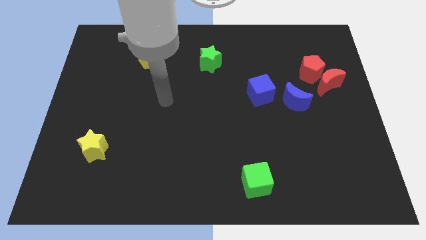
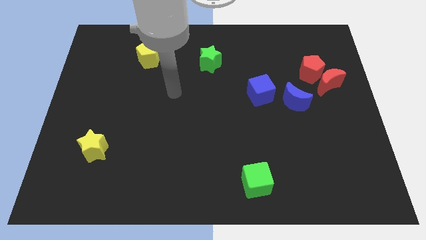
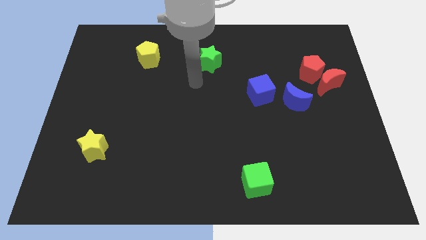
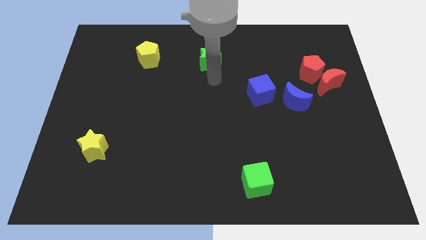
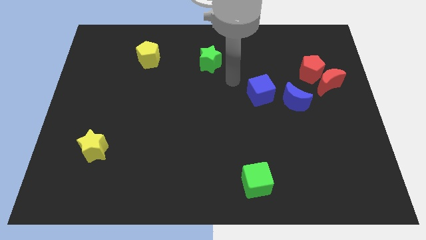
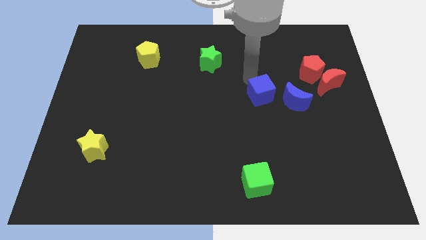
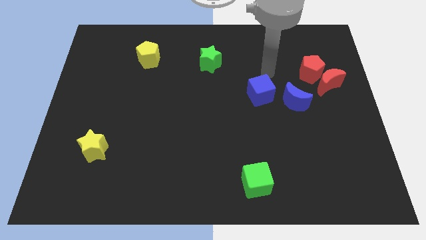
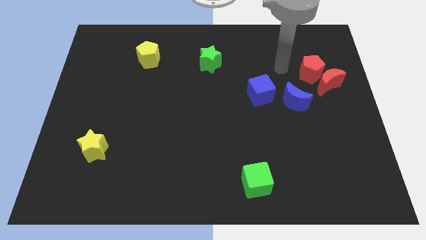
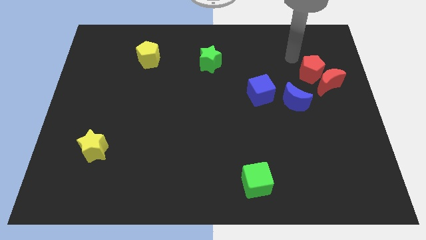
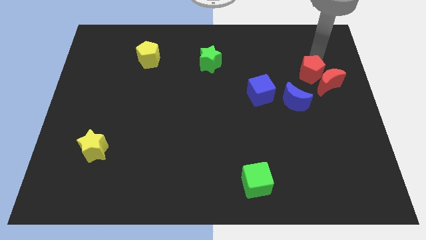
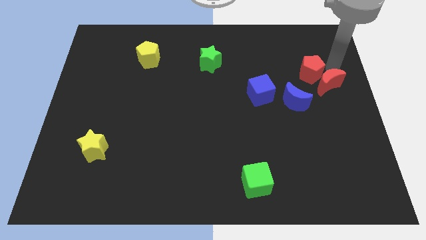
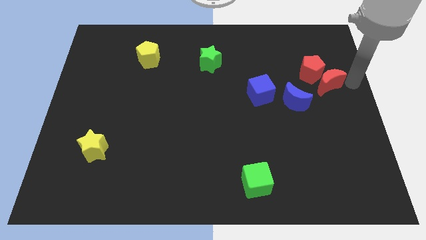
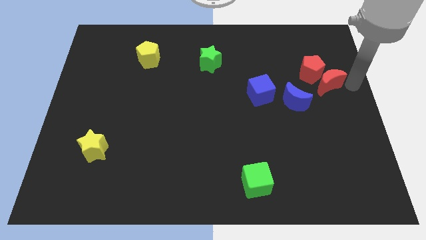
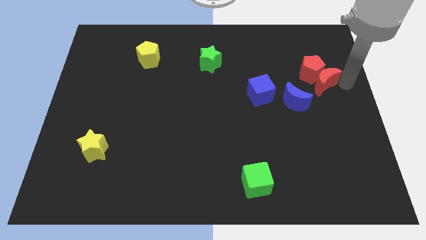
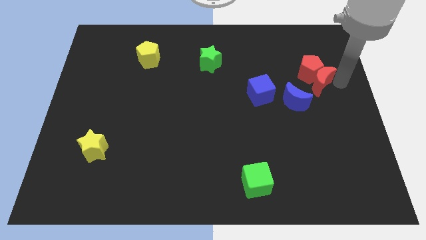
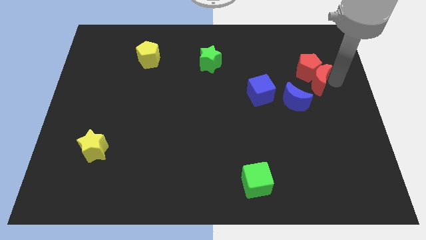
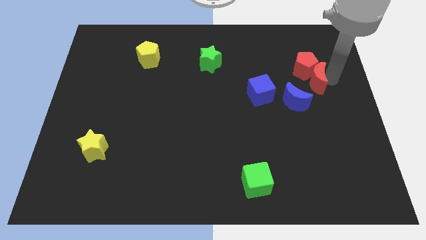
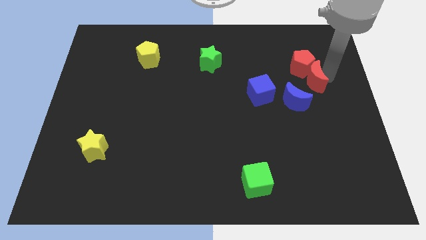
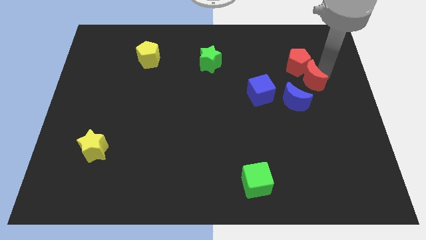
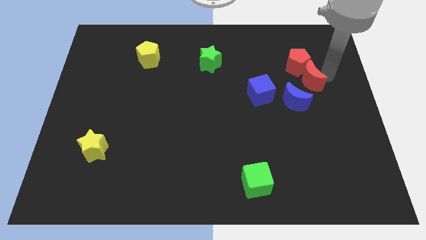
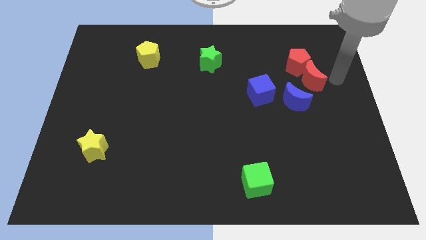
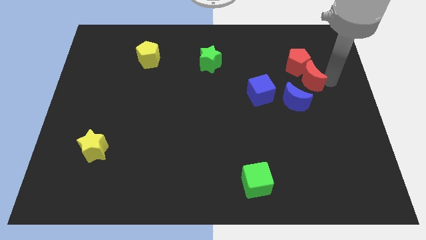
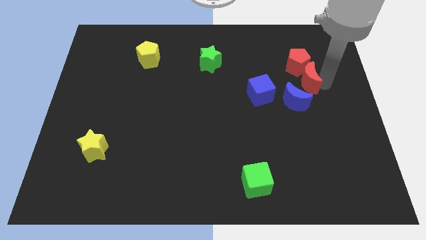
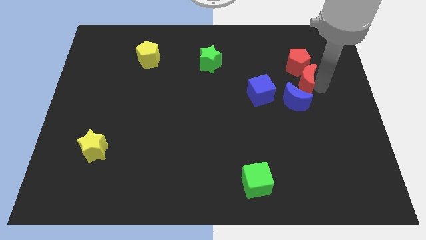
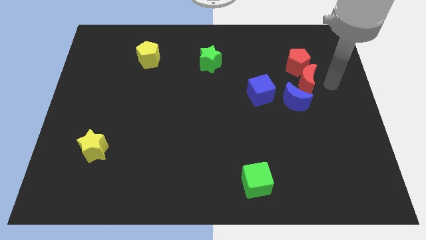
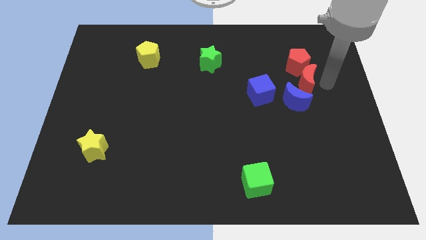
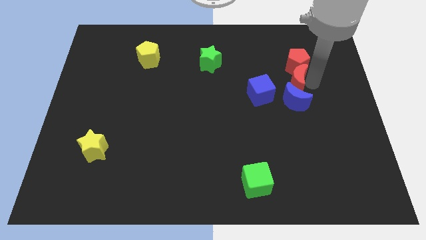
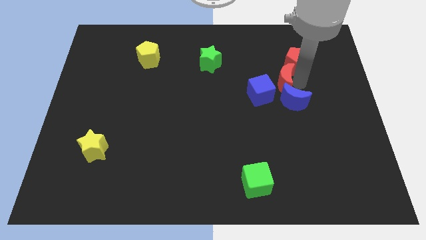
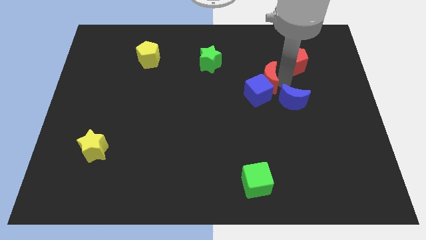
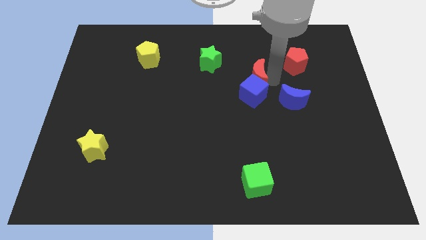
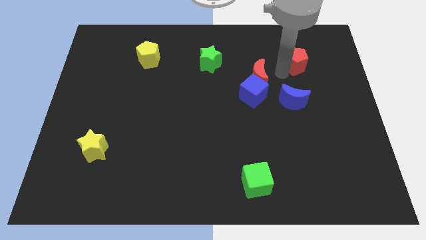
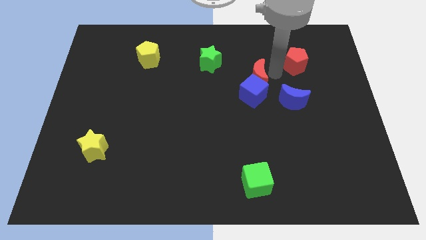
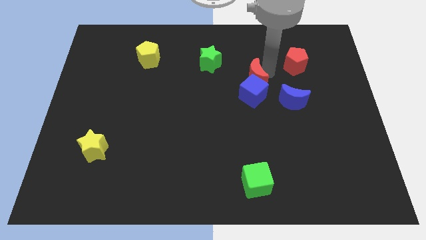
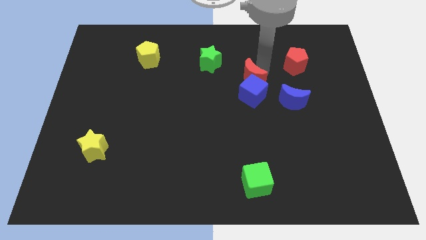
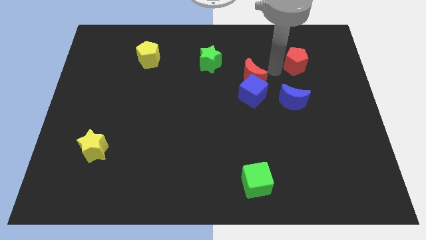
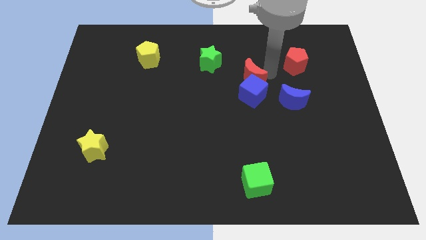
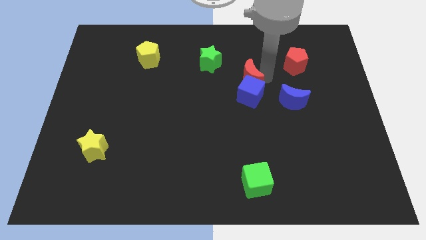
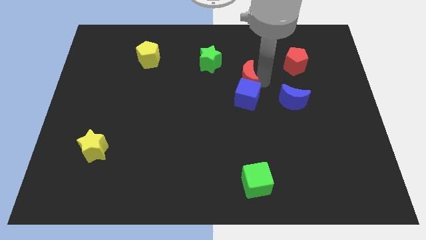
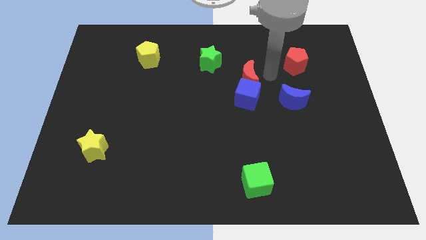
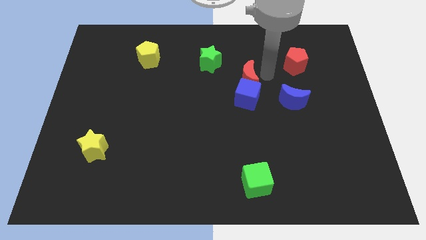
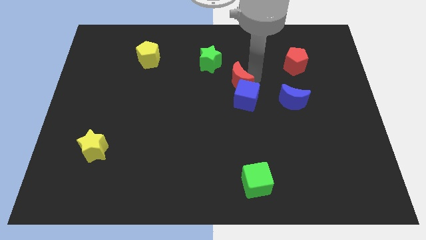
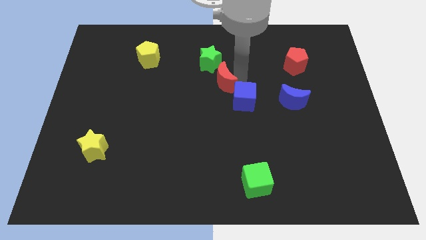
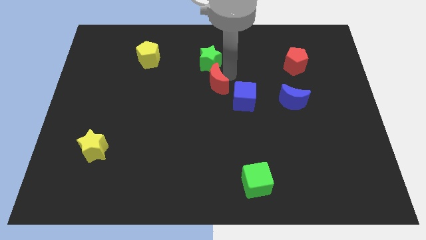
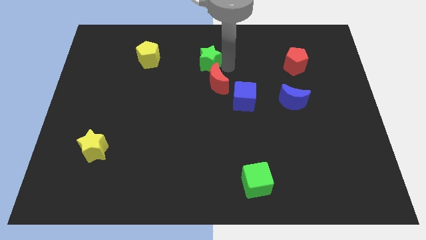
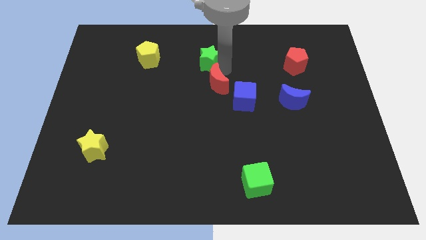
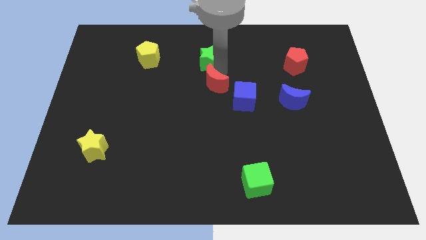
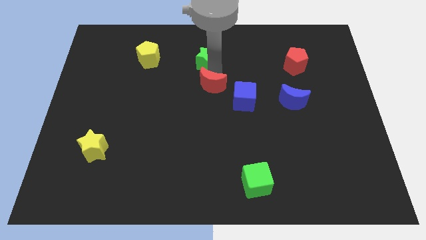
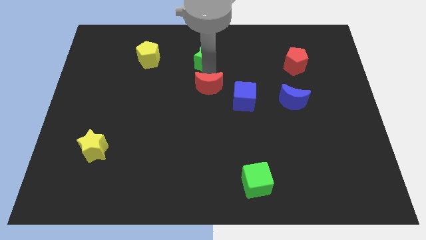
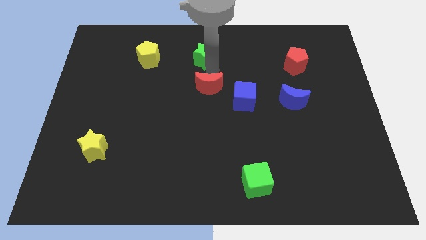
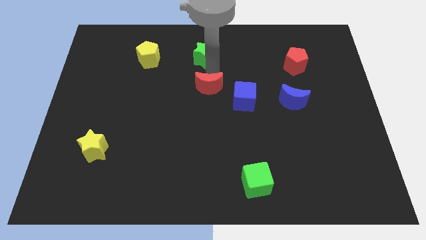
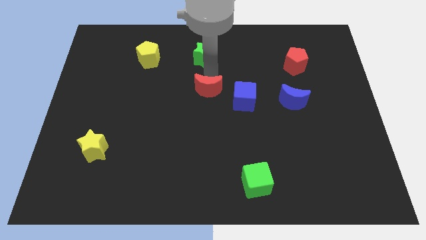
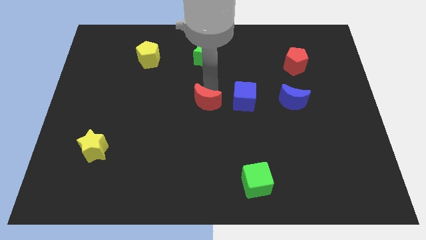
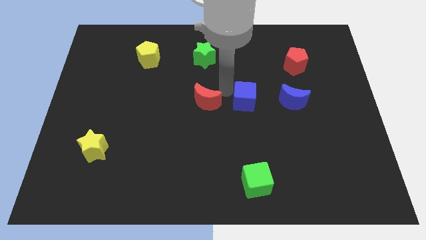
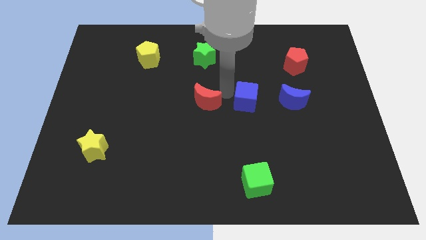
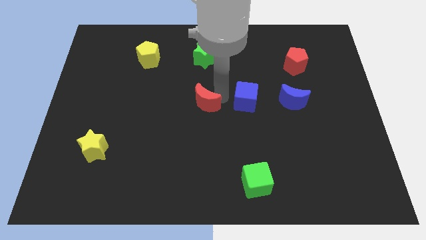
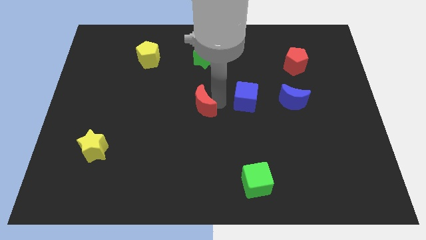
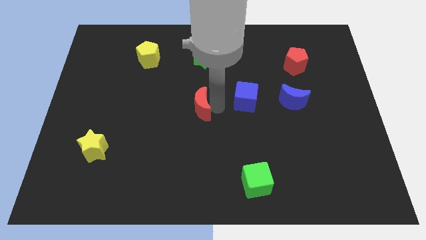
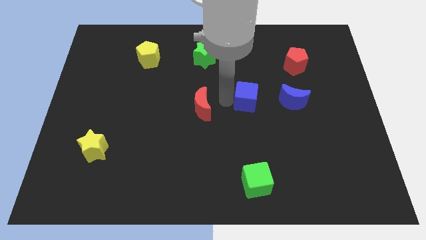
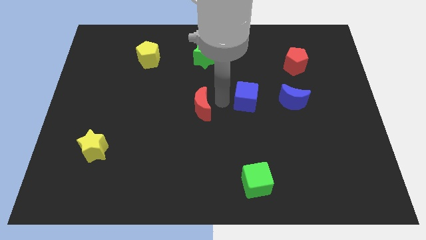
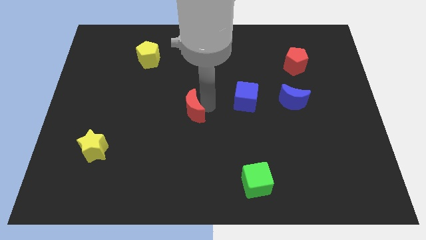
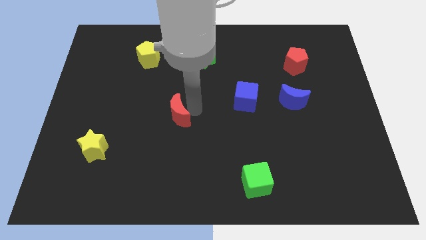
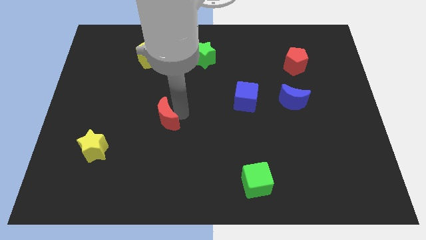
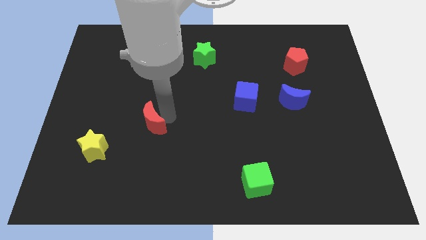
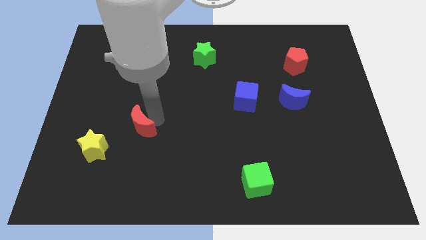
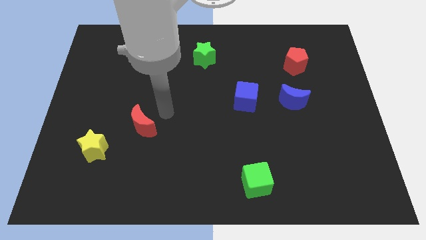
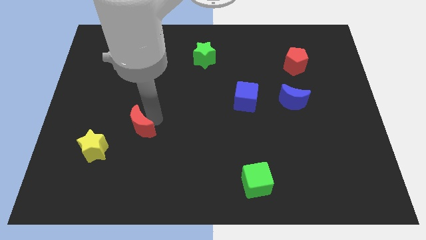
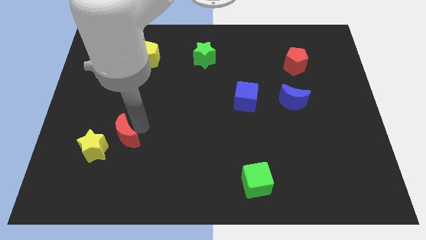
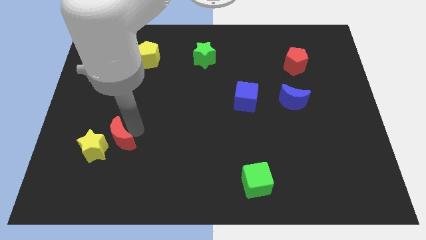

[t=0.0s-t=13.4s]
move the red moon close to the yellow star
